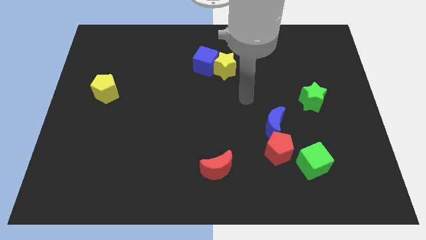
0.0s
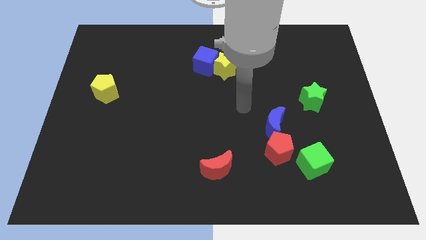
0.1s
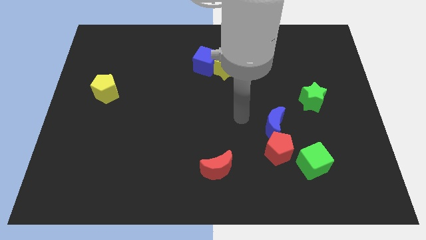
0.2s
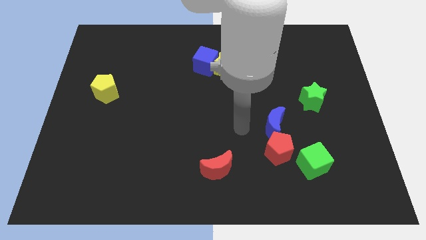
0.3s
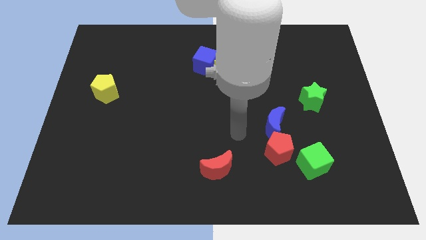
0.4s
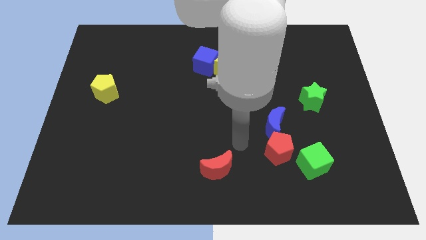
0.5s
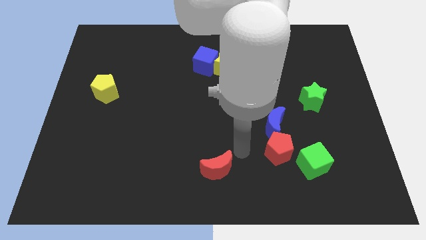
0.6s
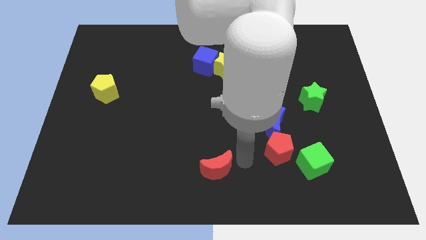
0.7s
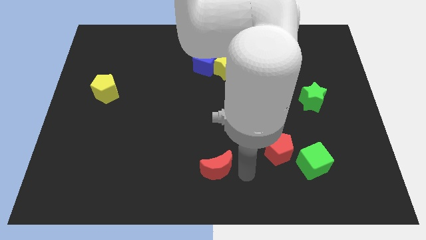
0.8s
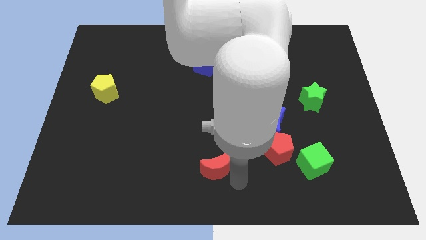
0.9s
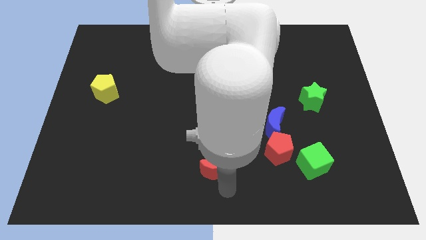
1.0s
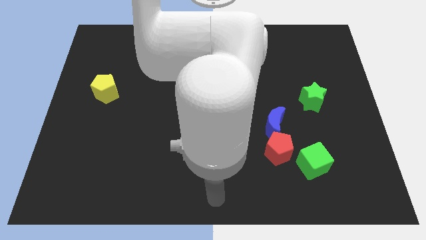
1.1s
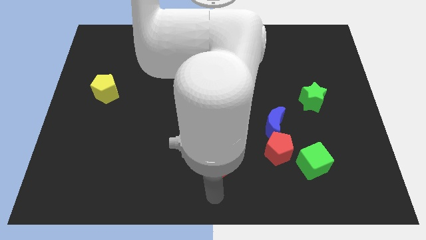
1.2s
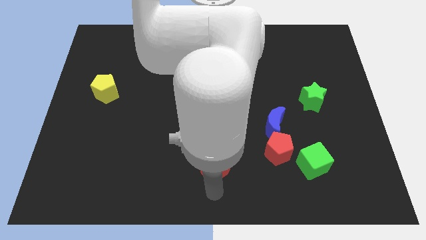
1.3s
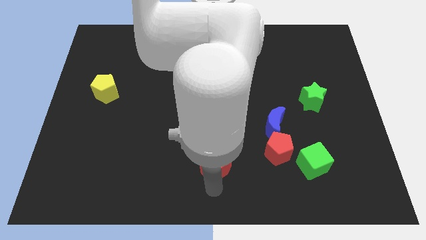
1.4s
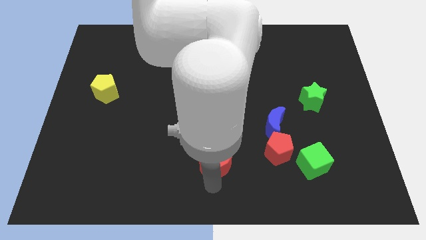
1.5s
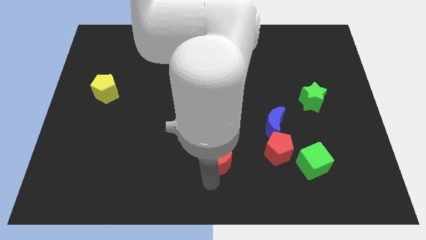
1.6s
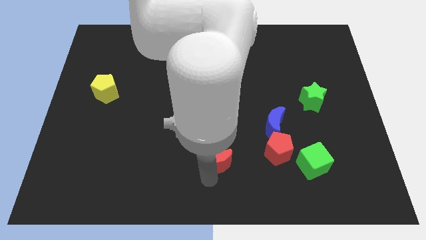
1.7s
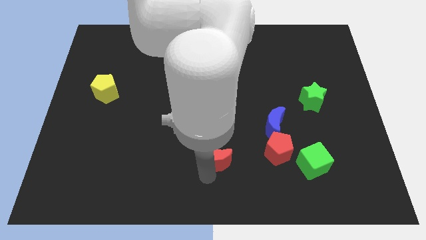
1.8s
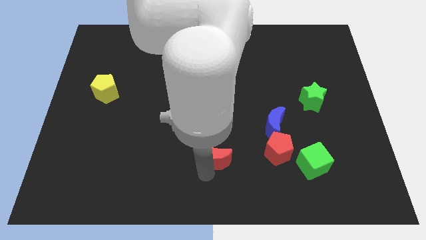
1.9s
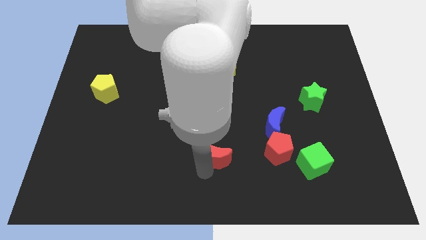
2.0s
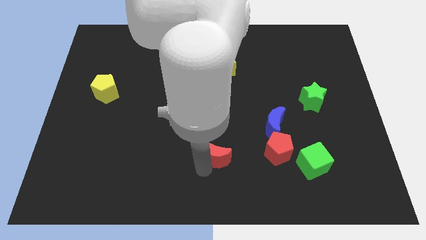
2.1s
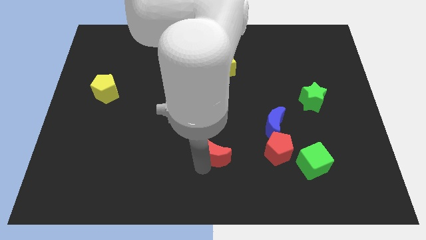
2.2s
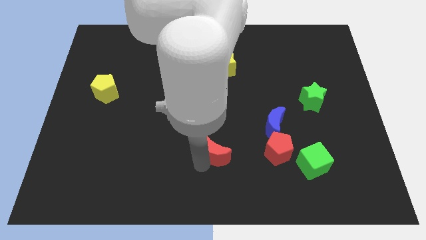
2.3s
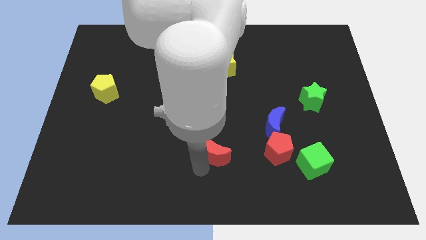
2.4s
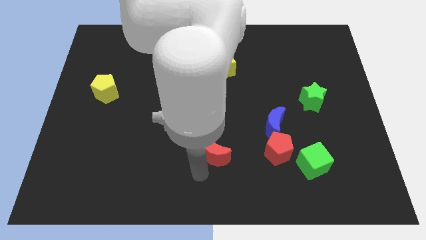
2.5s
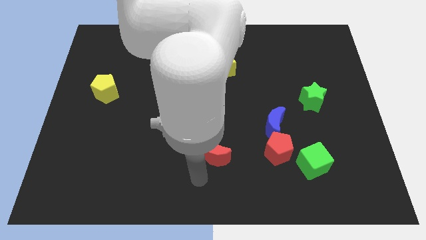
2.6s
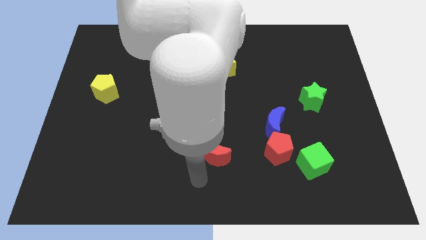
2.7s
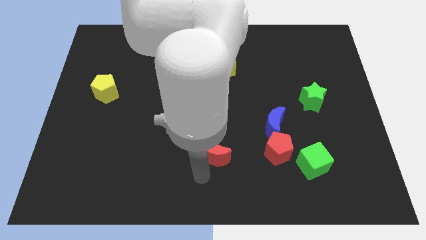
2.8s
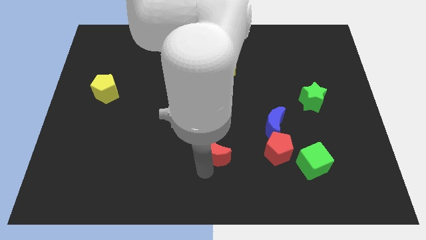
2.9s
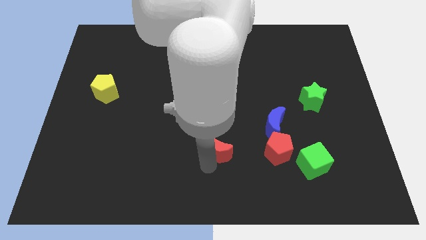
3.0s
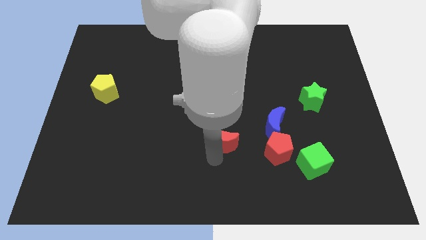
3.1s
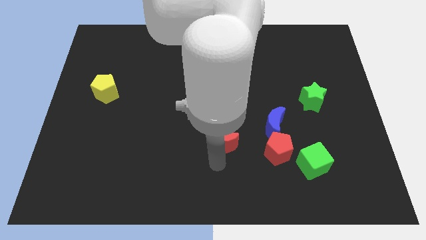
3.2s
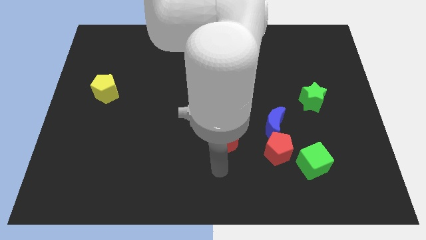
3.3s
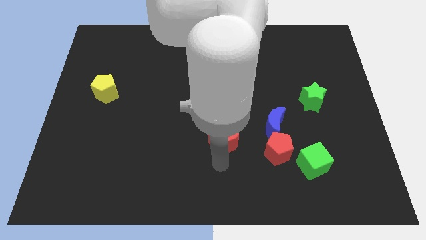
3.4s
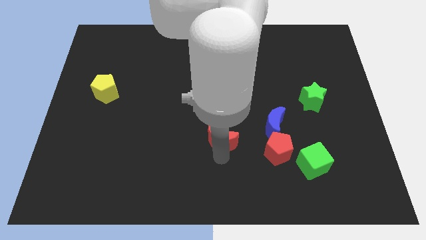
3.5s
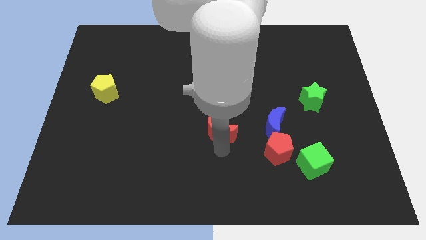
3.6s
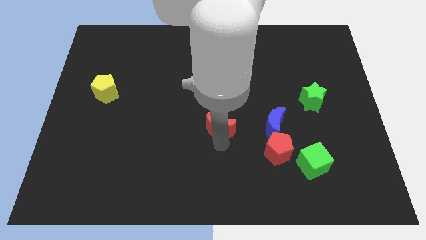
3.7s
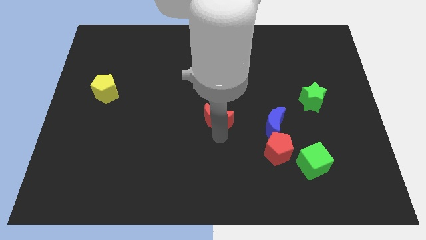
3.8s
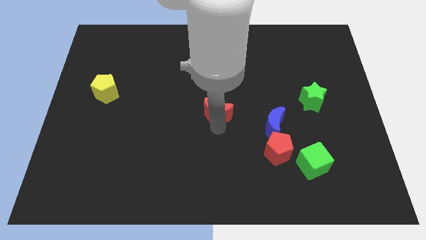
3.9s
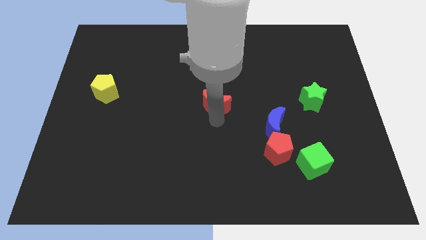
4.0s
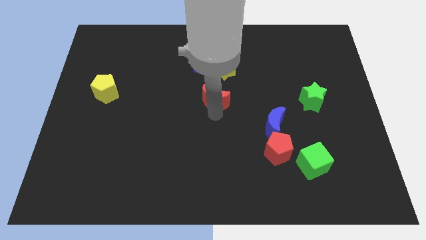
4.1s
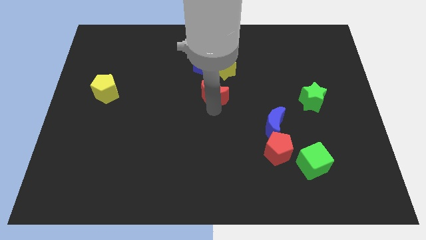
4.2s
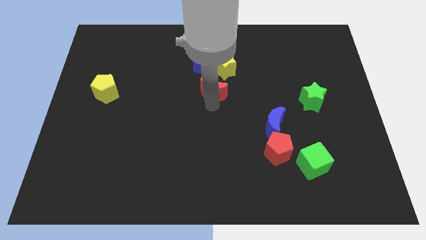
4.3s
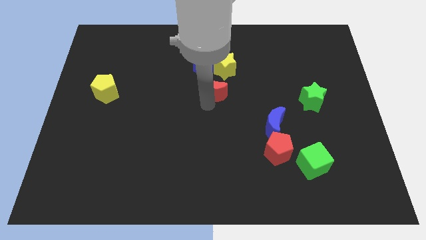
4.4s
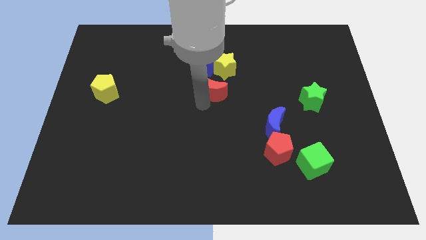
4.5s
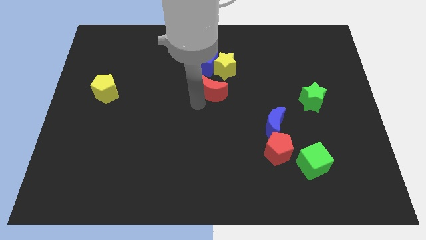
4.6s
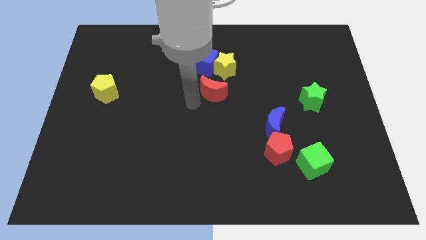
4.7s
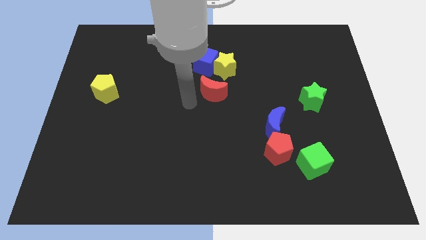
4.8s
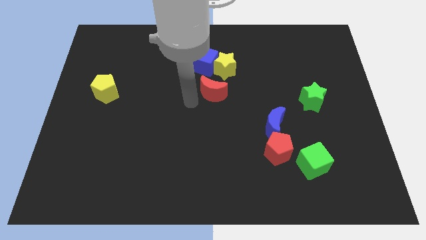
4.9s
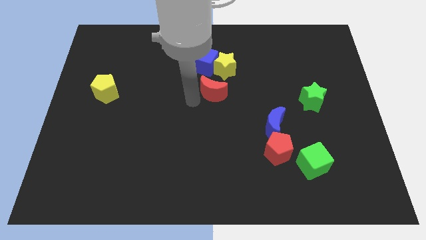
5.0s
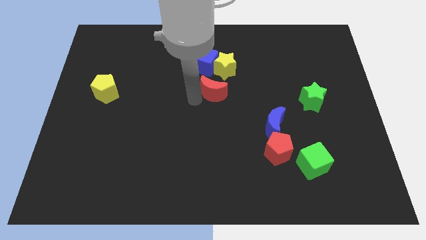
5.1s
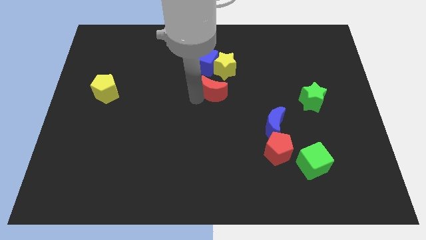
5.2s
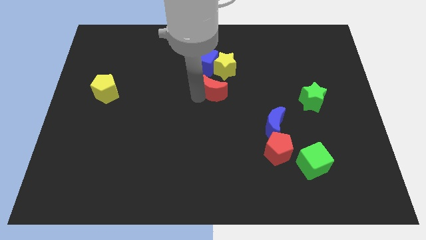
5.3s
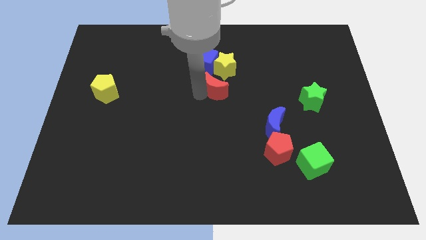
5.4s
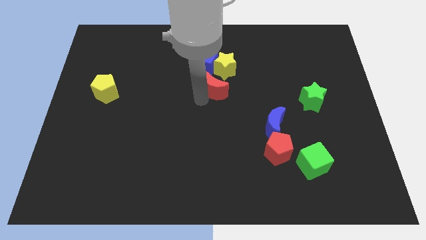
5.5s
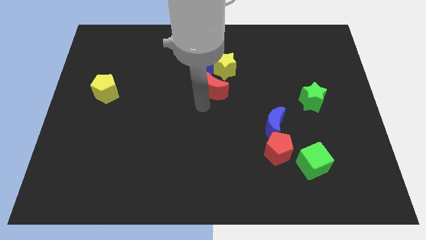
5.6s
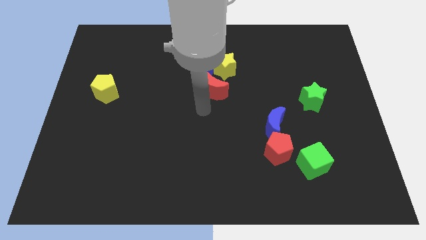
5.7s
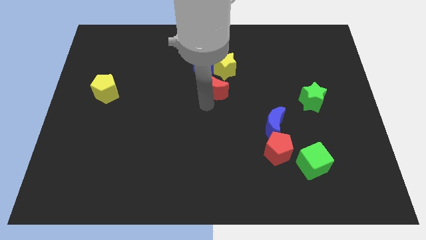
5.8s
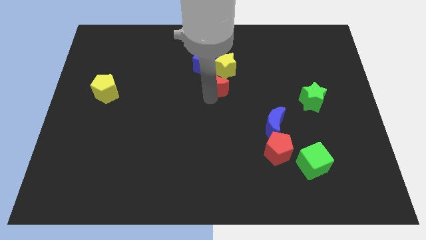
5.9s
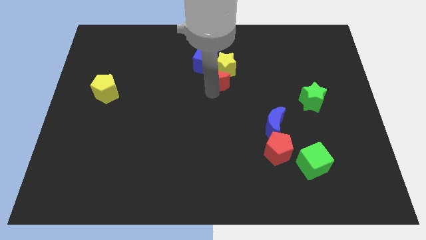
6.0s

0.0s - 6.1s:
move the red moon towards the yellow star

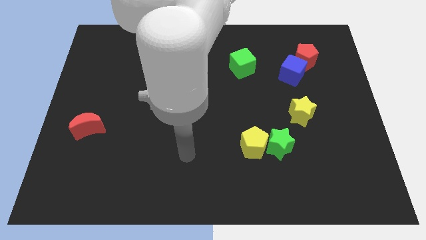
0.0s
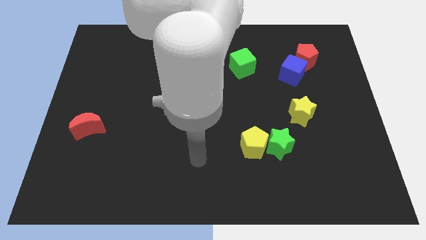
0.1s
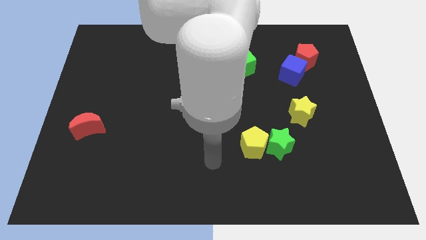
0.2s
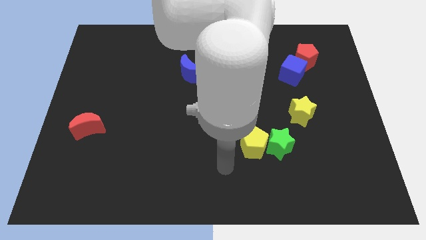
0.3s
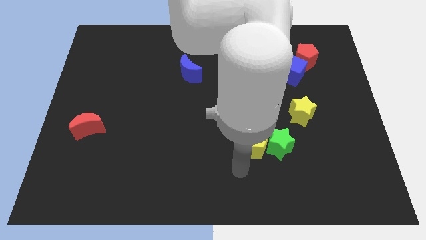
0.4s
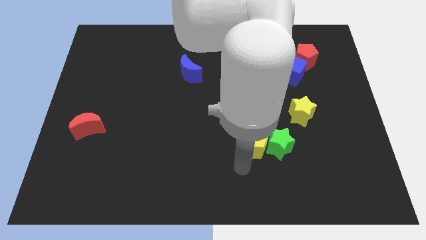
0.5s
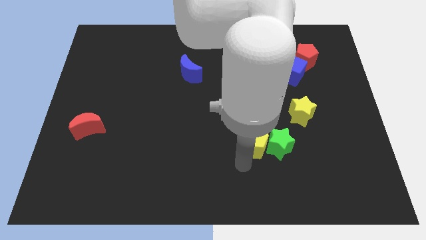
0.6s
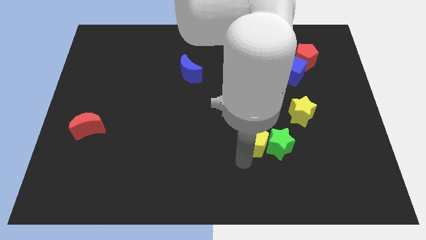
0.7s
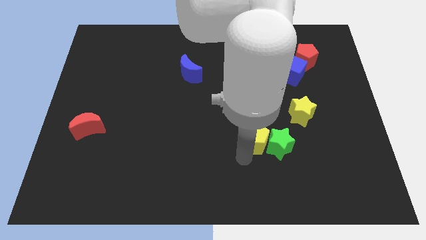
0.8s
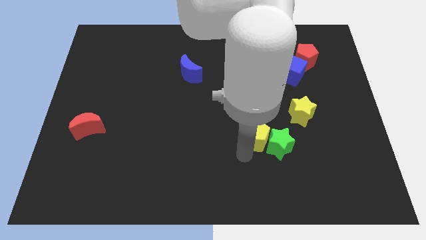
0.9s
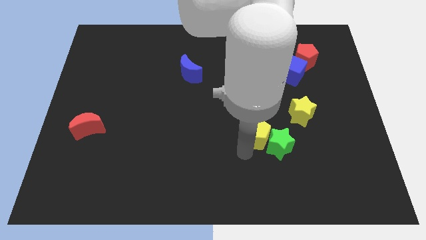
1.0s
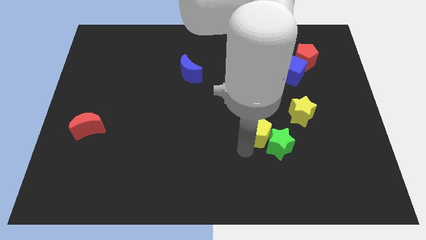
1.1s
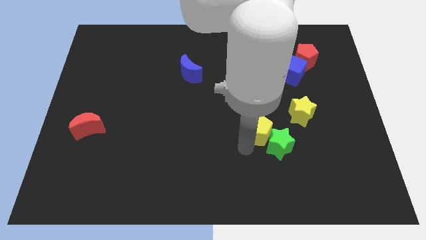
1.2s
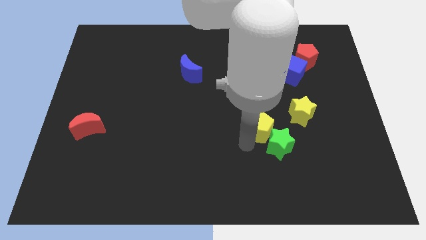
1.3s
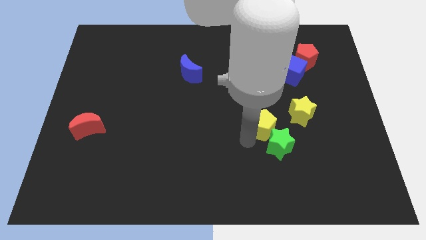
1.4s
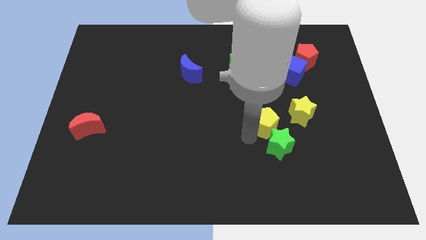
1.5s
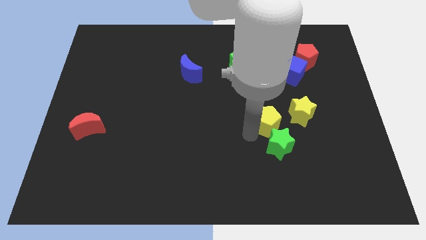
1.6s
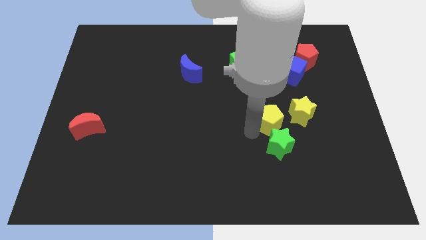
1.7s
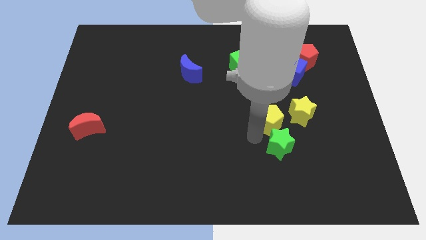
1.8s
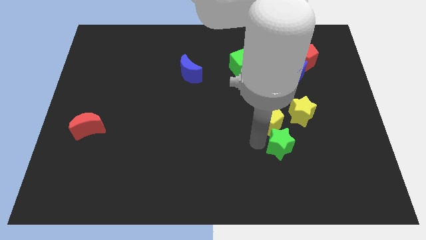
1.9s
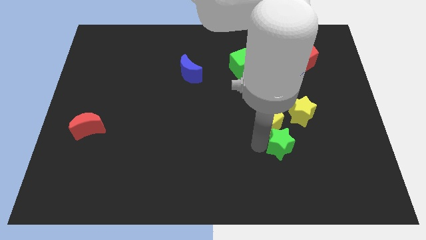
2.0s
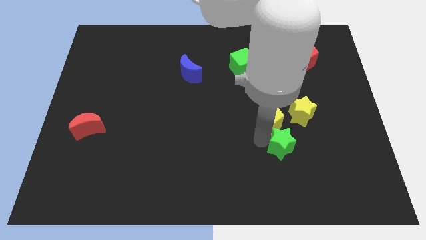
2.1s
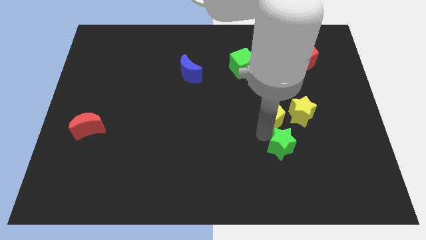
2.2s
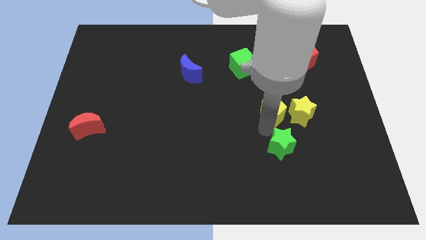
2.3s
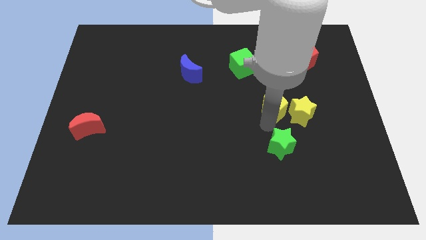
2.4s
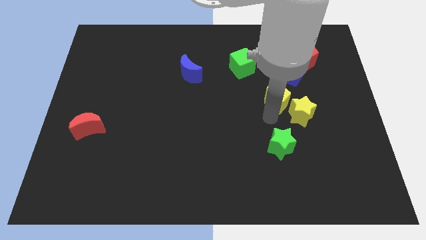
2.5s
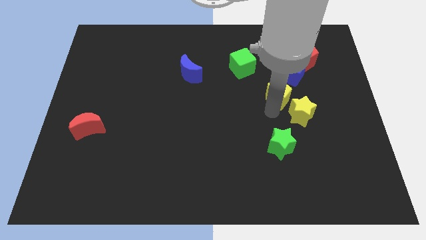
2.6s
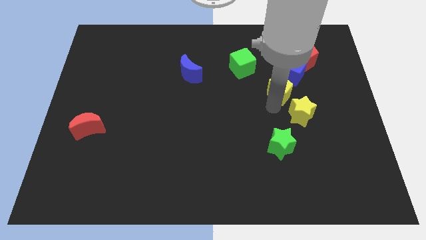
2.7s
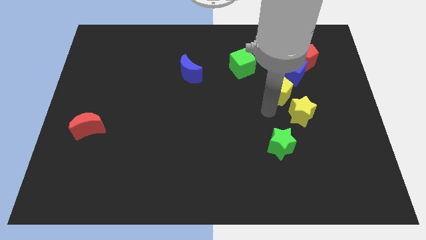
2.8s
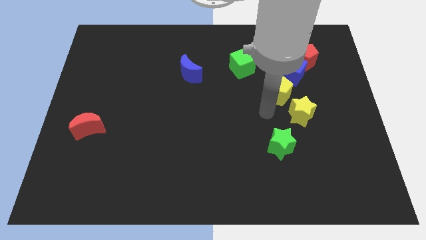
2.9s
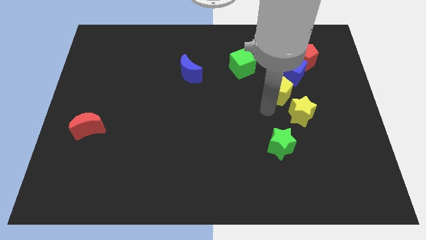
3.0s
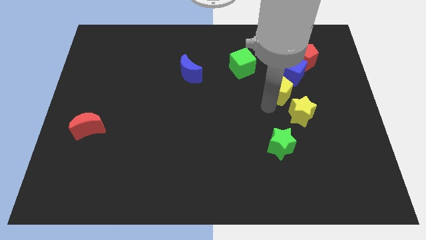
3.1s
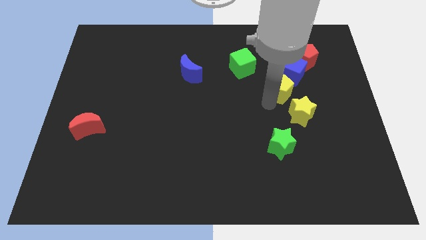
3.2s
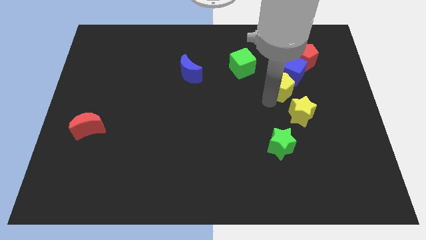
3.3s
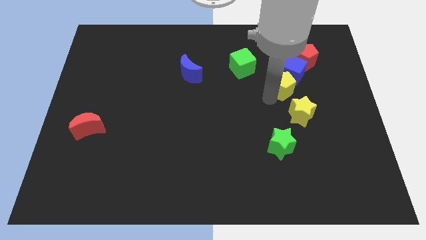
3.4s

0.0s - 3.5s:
move the yellow pentagon close to the blue cube
